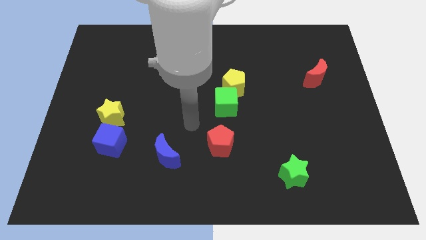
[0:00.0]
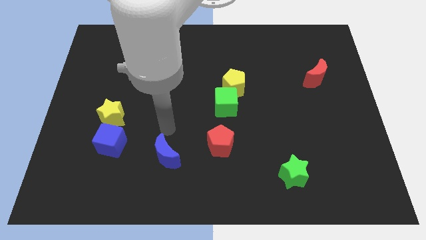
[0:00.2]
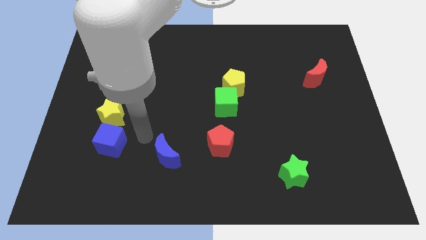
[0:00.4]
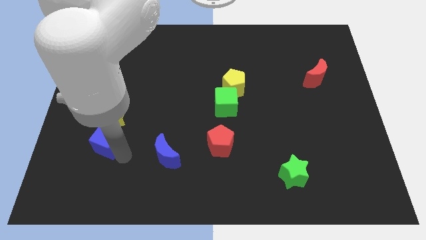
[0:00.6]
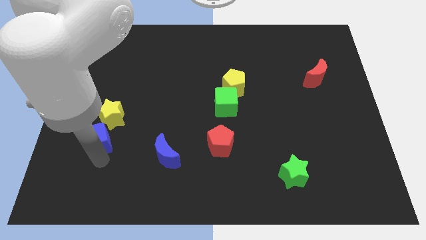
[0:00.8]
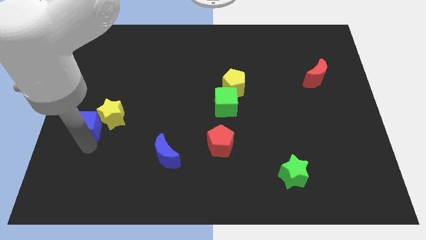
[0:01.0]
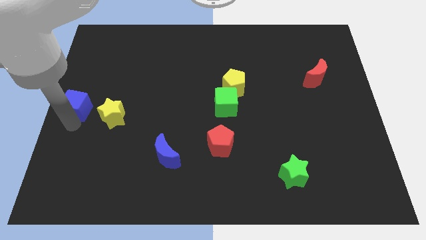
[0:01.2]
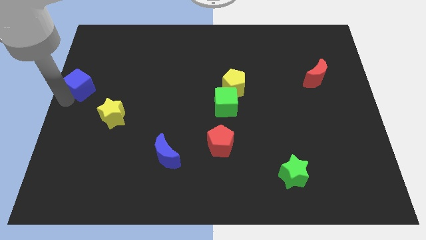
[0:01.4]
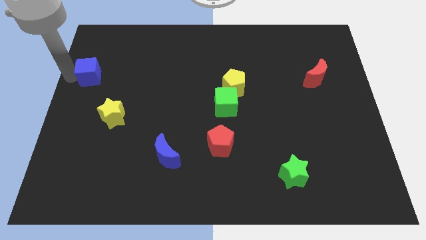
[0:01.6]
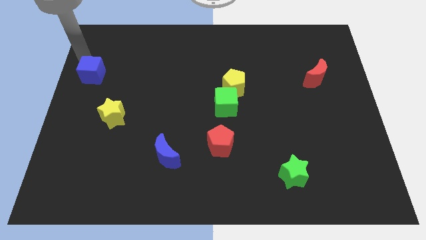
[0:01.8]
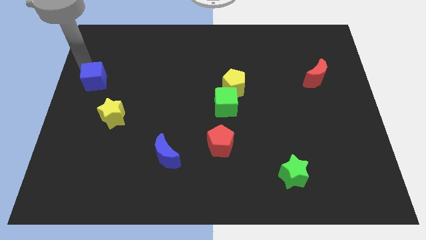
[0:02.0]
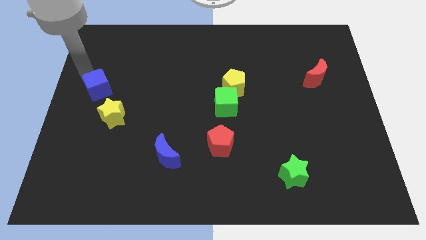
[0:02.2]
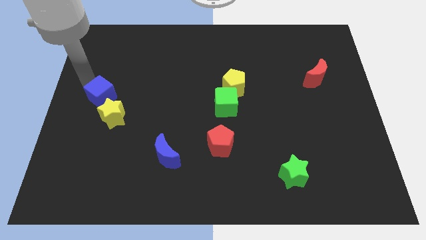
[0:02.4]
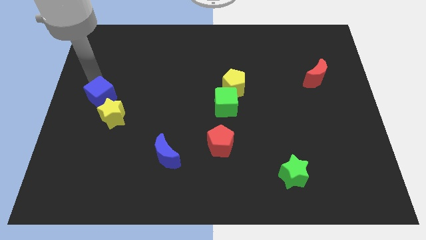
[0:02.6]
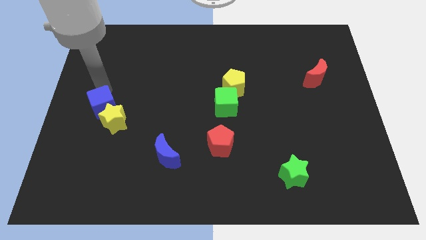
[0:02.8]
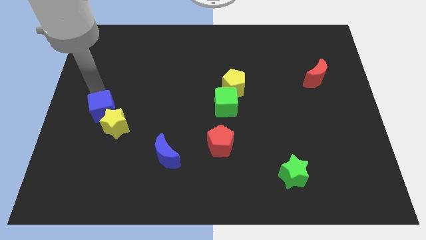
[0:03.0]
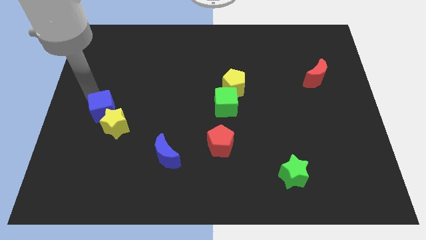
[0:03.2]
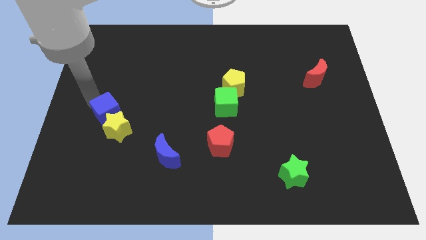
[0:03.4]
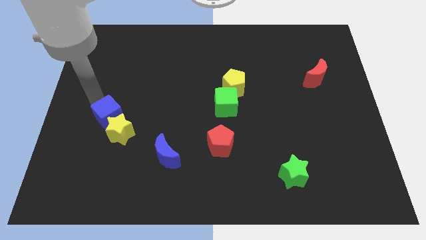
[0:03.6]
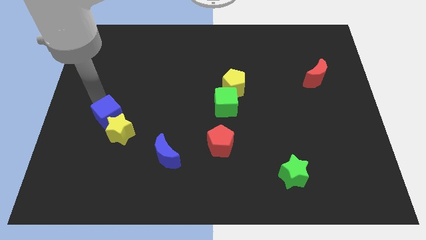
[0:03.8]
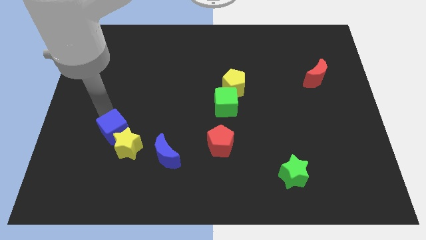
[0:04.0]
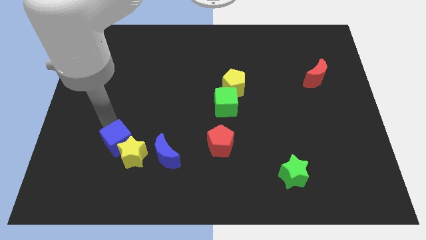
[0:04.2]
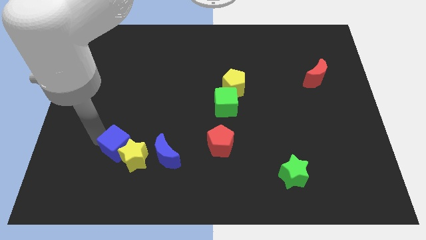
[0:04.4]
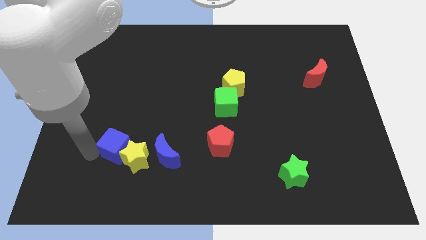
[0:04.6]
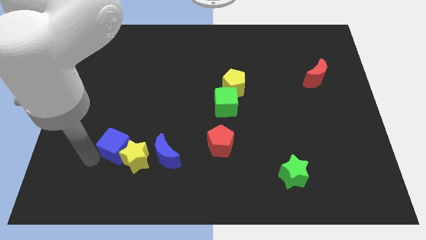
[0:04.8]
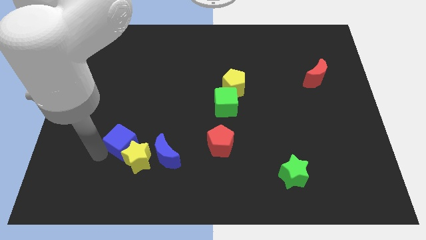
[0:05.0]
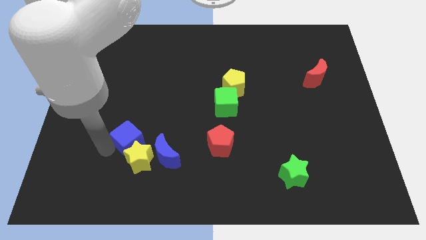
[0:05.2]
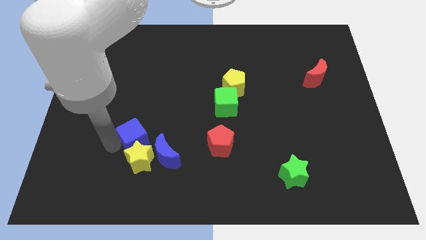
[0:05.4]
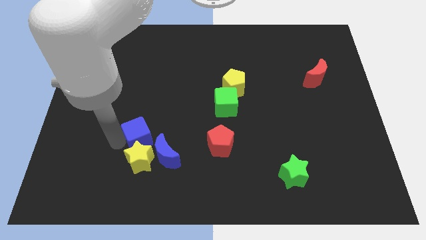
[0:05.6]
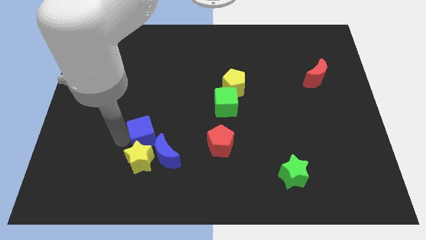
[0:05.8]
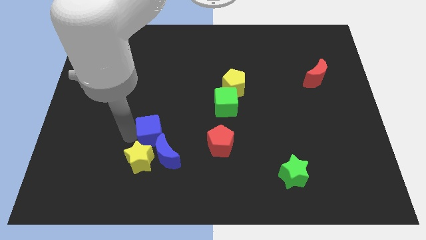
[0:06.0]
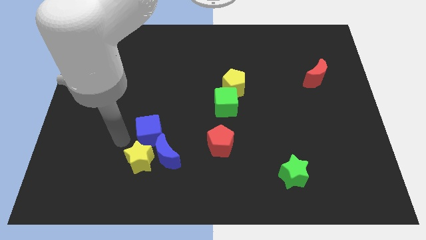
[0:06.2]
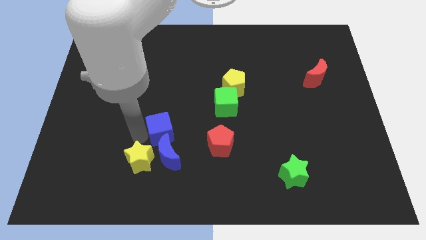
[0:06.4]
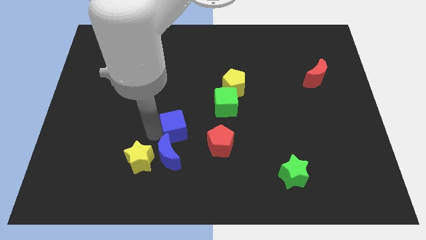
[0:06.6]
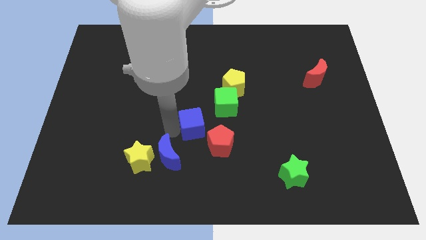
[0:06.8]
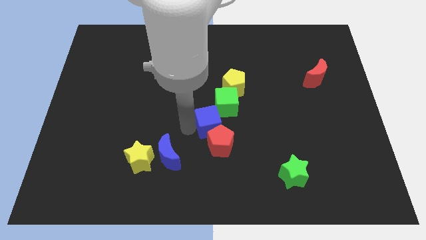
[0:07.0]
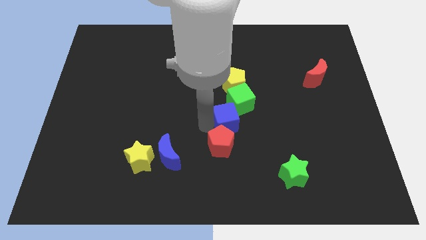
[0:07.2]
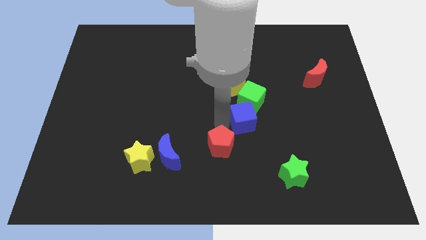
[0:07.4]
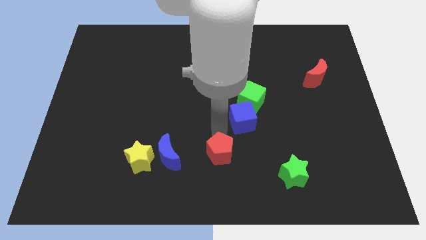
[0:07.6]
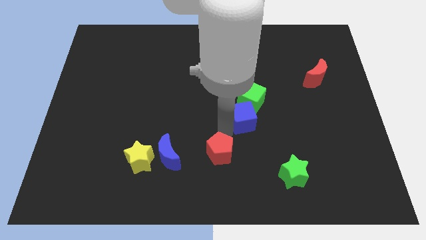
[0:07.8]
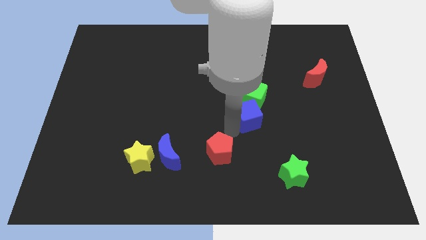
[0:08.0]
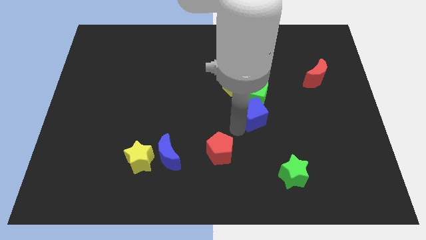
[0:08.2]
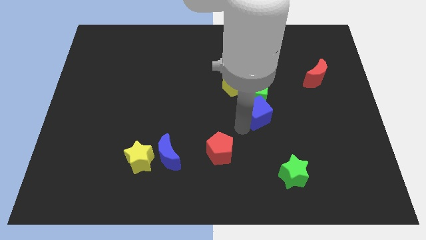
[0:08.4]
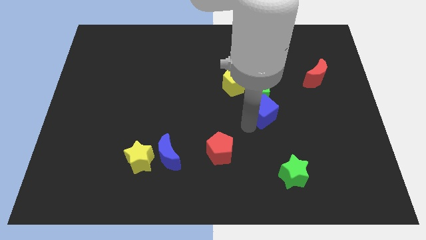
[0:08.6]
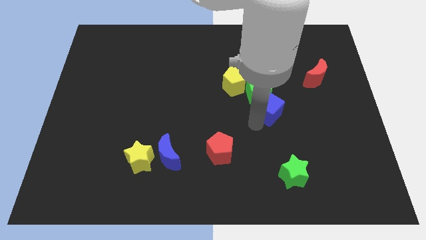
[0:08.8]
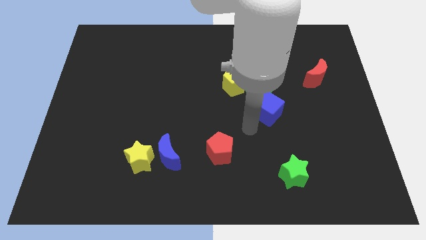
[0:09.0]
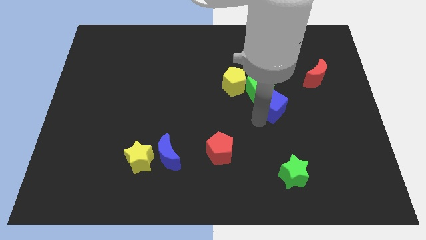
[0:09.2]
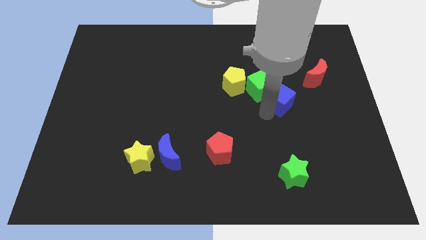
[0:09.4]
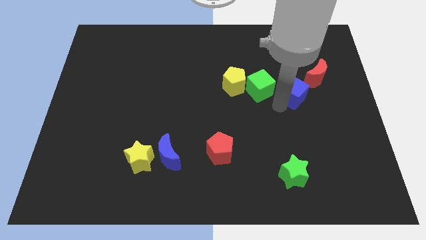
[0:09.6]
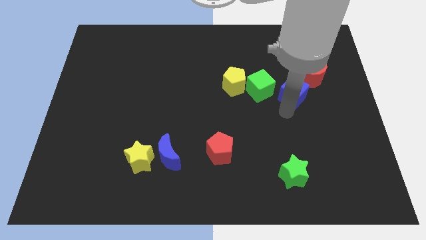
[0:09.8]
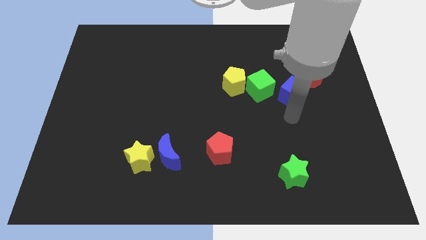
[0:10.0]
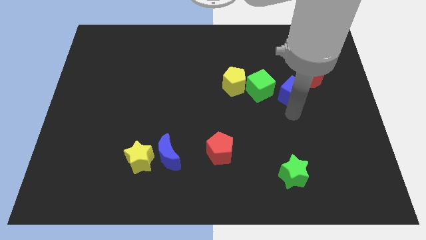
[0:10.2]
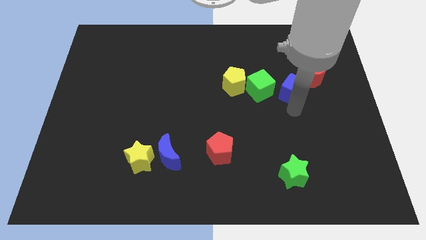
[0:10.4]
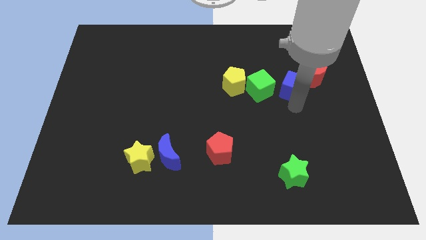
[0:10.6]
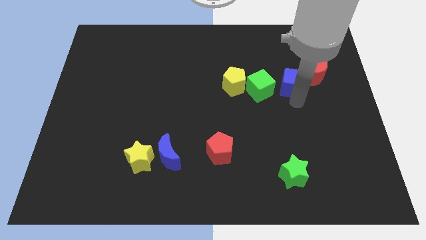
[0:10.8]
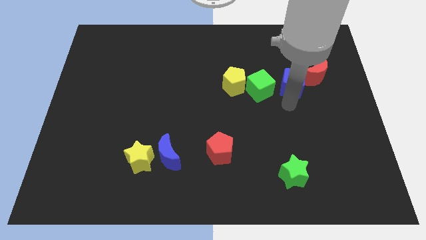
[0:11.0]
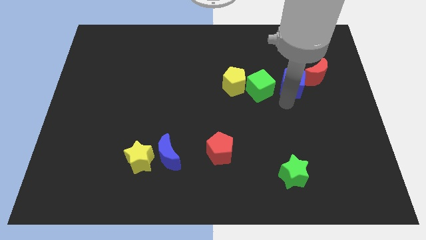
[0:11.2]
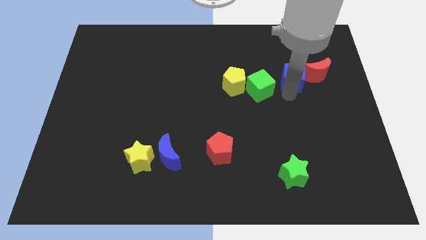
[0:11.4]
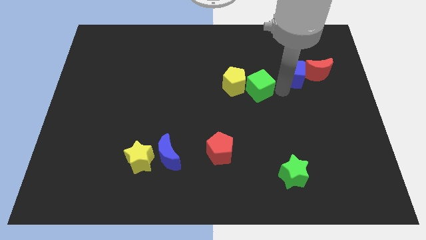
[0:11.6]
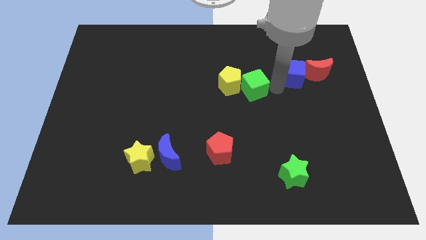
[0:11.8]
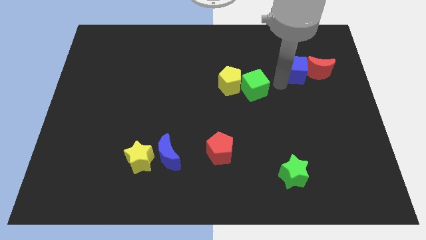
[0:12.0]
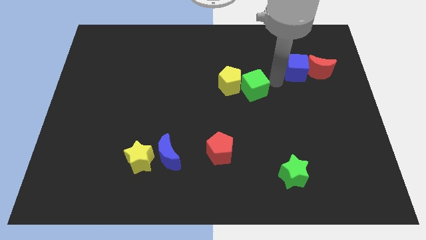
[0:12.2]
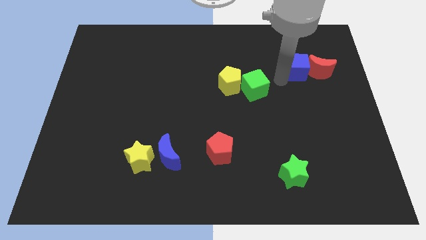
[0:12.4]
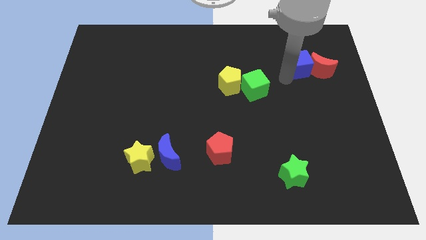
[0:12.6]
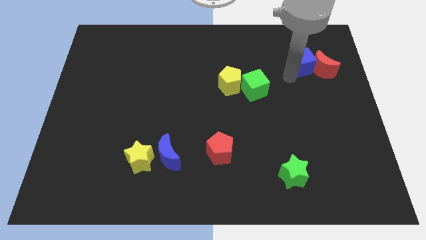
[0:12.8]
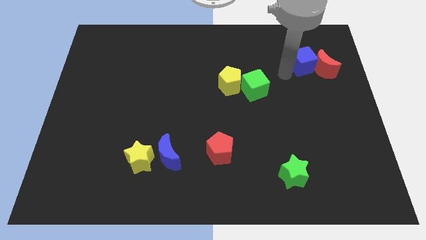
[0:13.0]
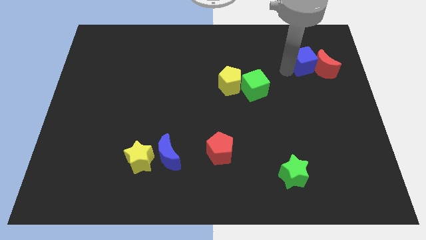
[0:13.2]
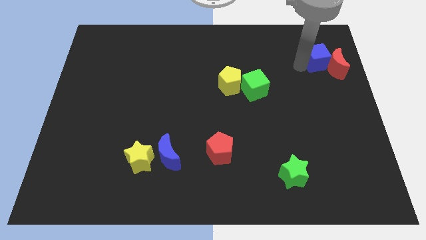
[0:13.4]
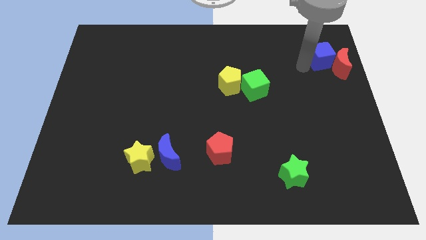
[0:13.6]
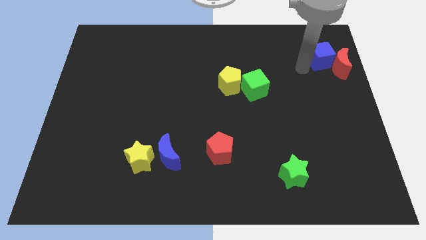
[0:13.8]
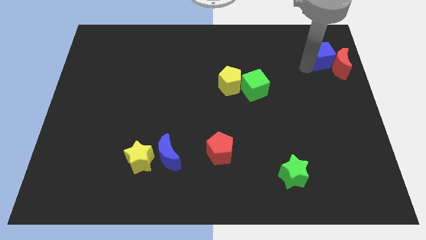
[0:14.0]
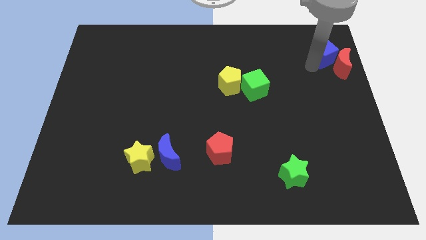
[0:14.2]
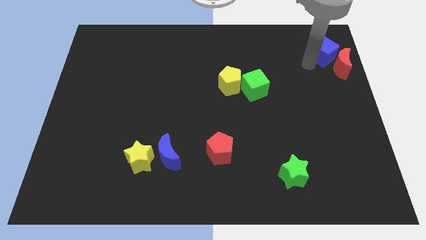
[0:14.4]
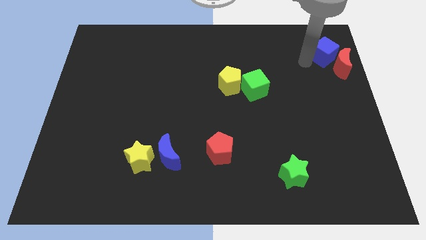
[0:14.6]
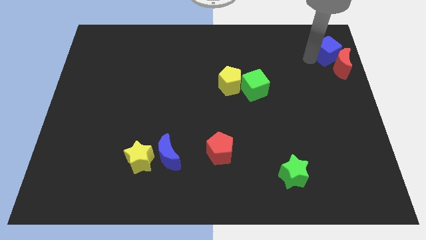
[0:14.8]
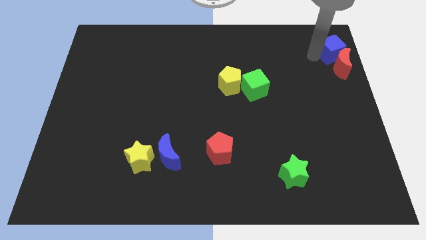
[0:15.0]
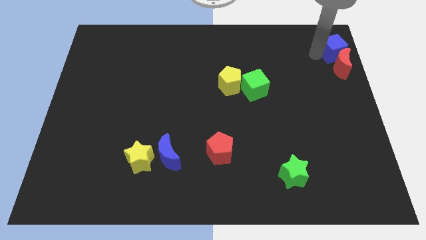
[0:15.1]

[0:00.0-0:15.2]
move the blue cube to the top right of the board
